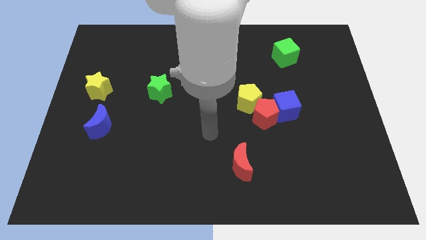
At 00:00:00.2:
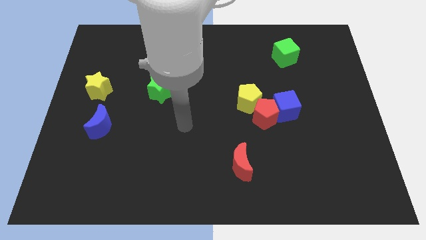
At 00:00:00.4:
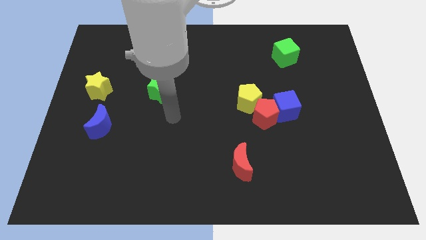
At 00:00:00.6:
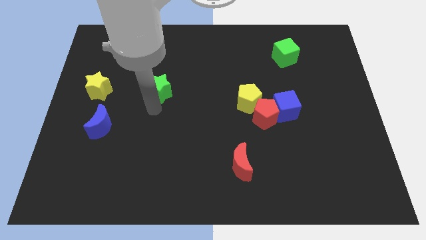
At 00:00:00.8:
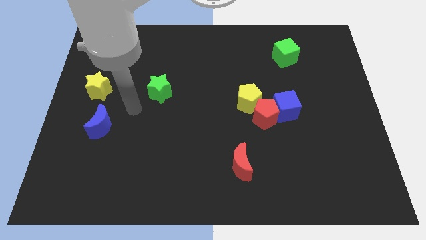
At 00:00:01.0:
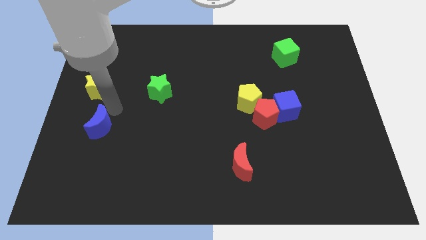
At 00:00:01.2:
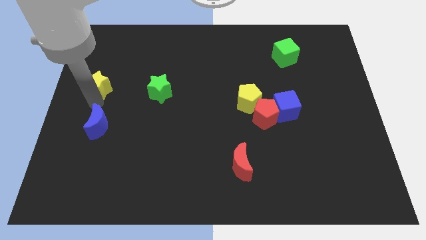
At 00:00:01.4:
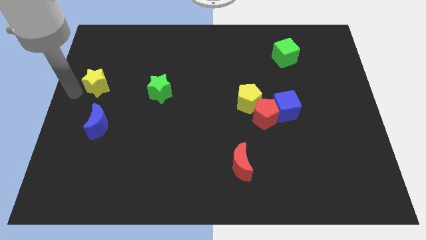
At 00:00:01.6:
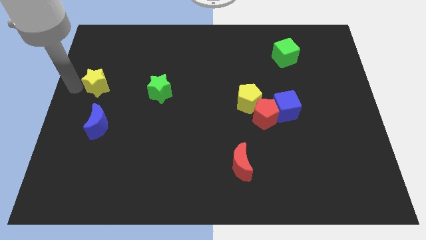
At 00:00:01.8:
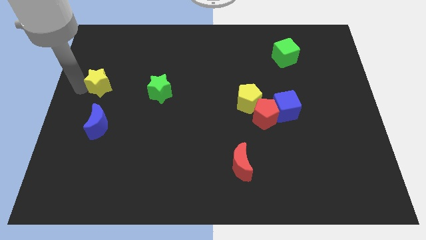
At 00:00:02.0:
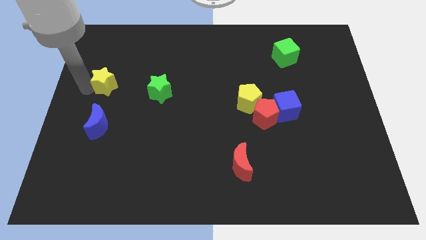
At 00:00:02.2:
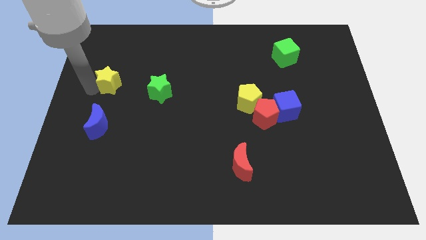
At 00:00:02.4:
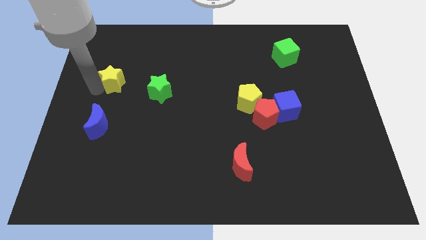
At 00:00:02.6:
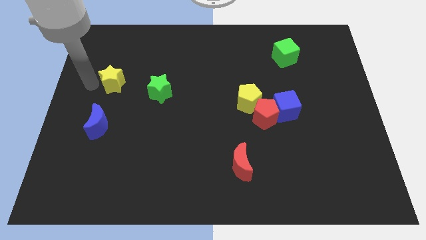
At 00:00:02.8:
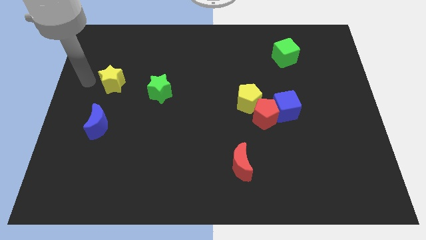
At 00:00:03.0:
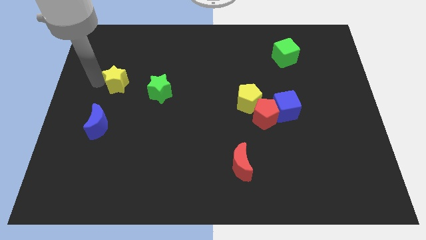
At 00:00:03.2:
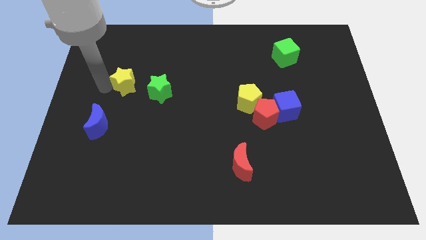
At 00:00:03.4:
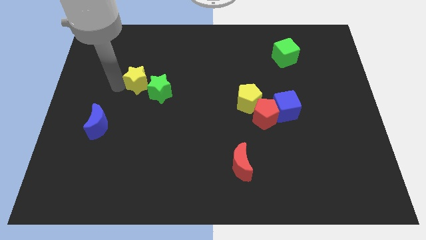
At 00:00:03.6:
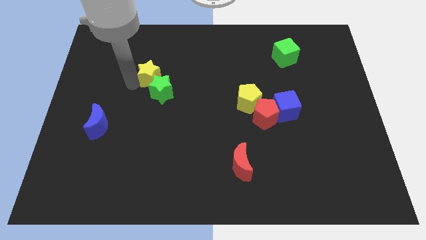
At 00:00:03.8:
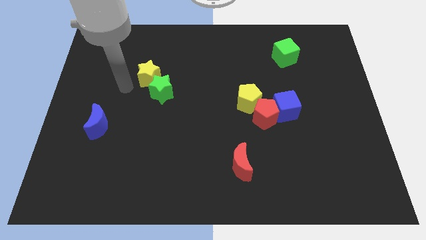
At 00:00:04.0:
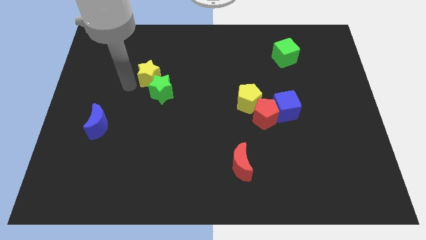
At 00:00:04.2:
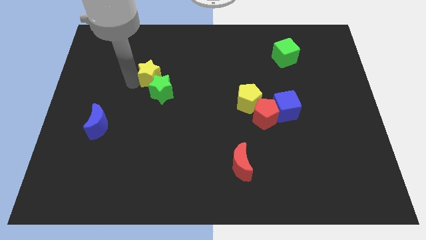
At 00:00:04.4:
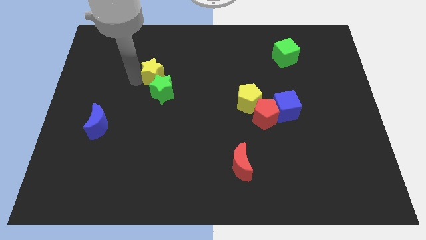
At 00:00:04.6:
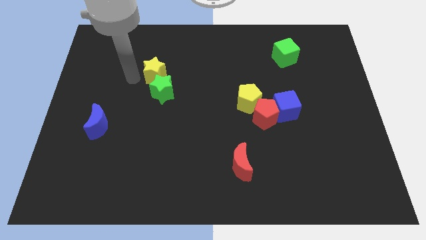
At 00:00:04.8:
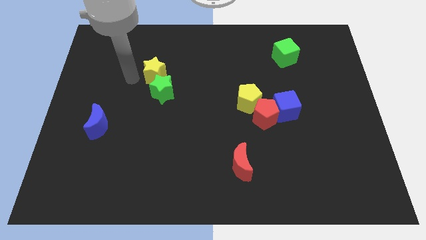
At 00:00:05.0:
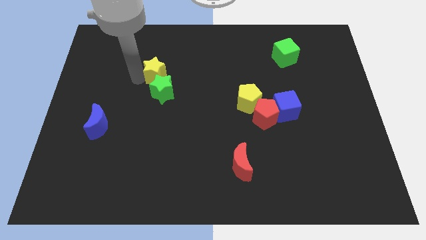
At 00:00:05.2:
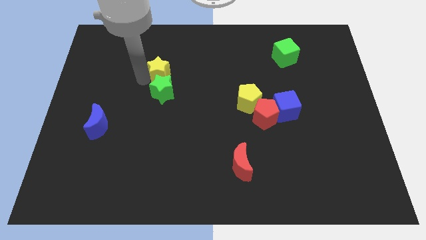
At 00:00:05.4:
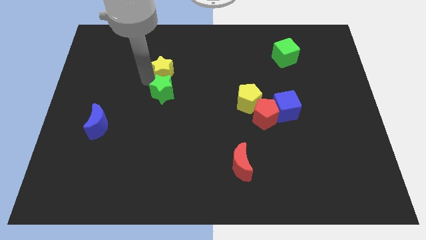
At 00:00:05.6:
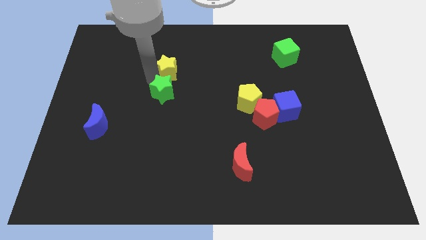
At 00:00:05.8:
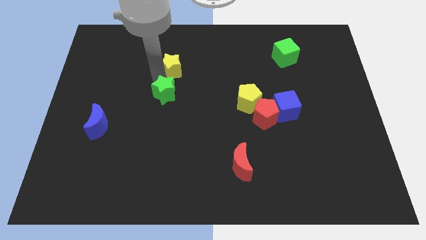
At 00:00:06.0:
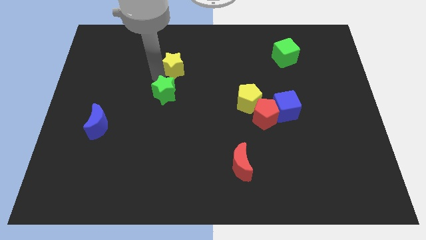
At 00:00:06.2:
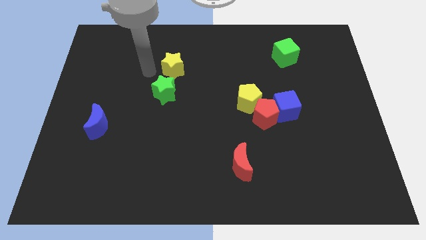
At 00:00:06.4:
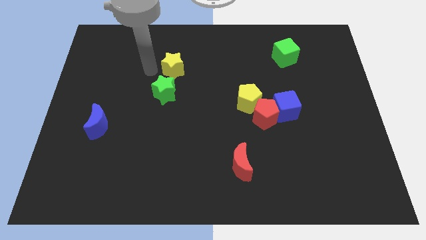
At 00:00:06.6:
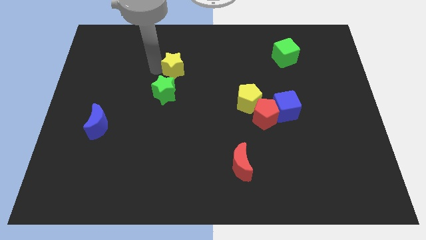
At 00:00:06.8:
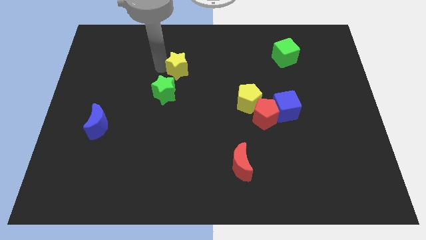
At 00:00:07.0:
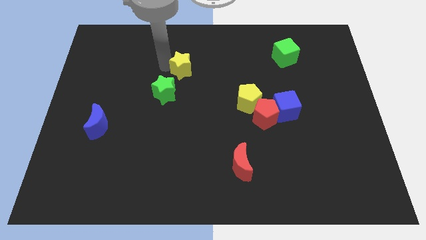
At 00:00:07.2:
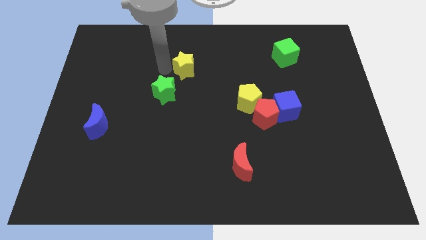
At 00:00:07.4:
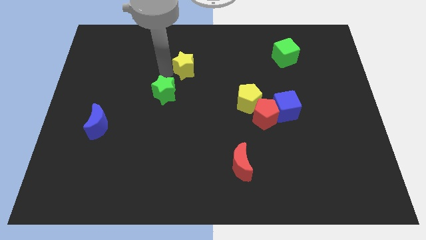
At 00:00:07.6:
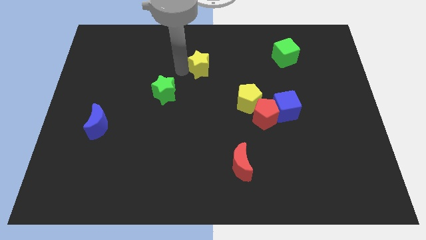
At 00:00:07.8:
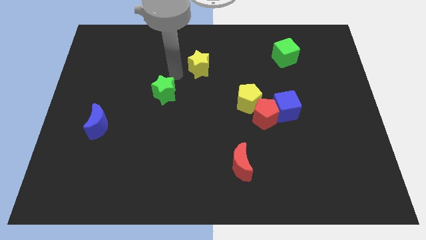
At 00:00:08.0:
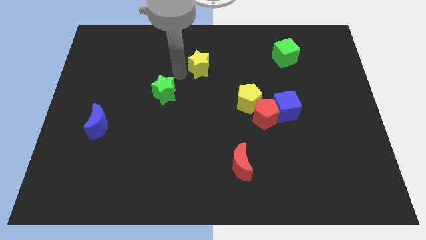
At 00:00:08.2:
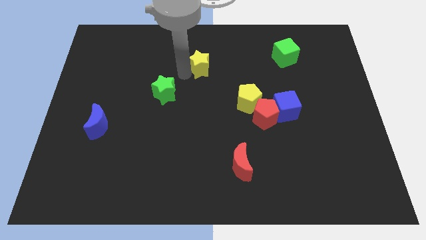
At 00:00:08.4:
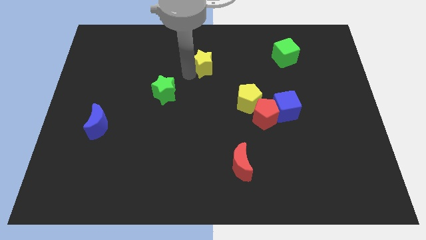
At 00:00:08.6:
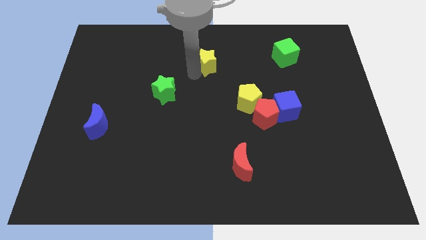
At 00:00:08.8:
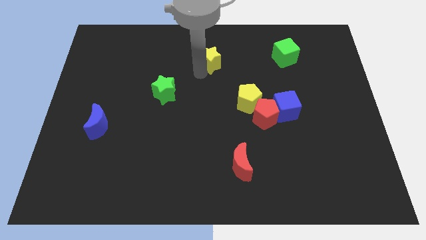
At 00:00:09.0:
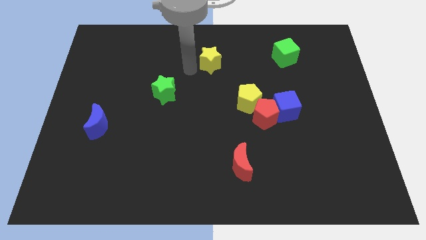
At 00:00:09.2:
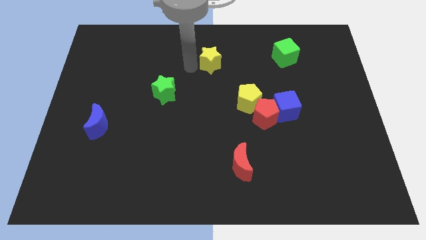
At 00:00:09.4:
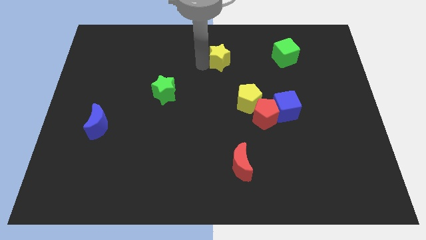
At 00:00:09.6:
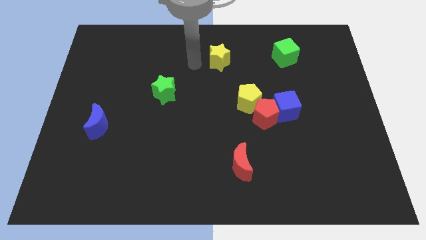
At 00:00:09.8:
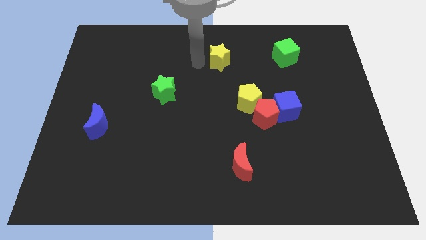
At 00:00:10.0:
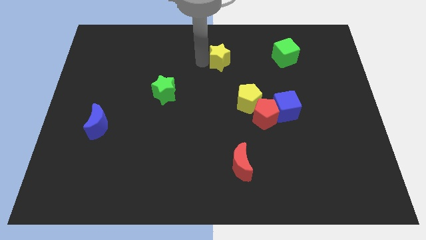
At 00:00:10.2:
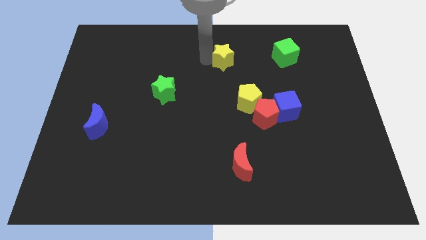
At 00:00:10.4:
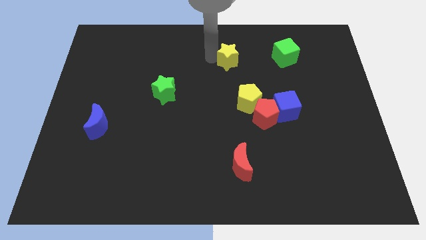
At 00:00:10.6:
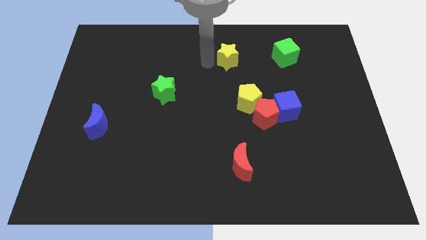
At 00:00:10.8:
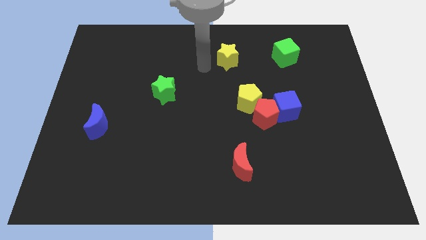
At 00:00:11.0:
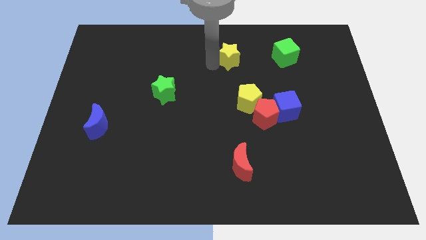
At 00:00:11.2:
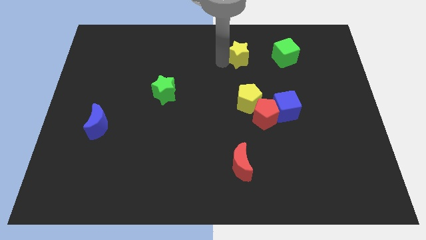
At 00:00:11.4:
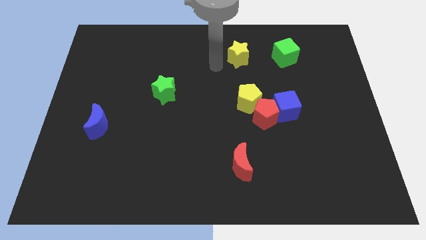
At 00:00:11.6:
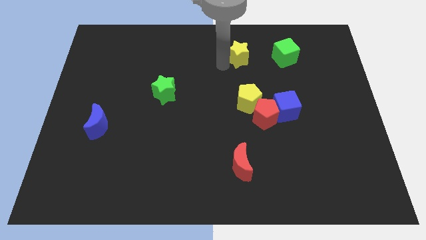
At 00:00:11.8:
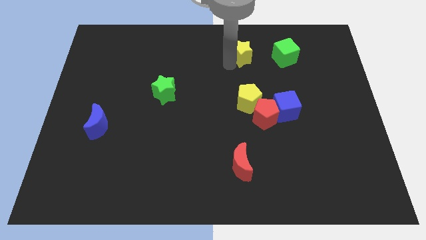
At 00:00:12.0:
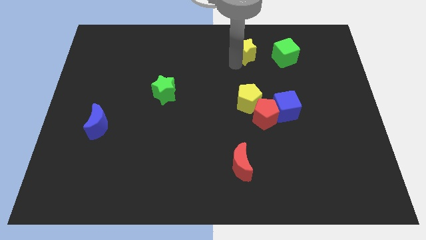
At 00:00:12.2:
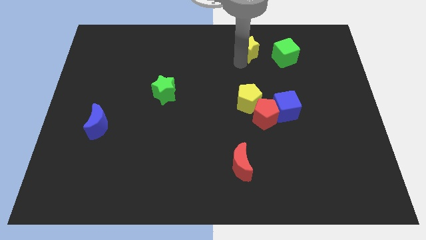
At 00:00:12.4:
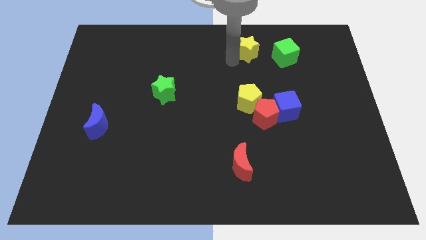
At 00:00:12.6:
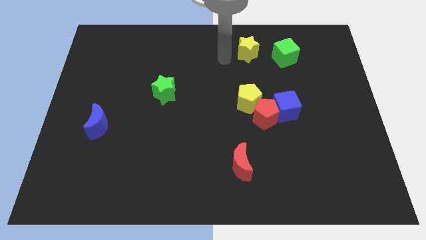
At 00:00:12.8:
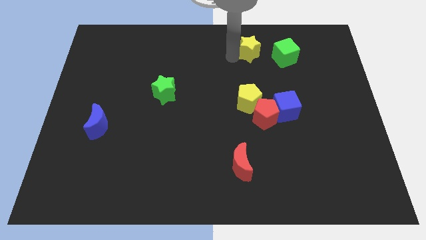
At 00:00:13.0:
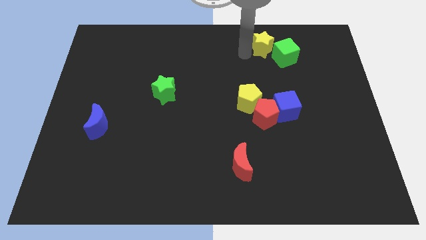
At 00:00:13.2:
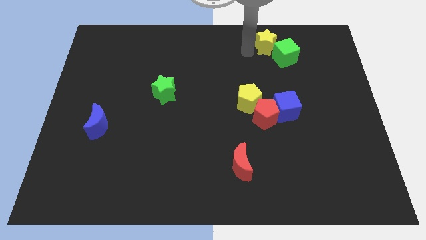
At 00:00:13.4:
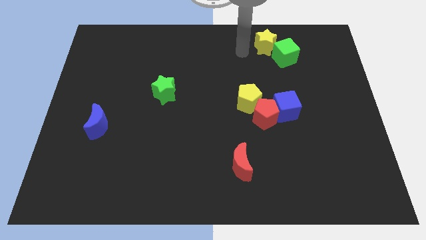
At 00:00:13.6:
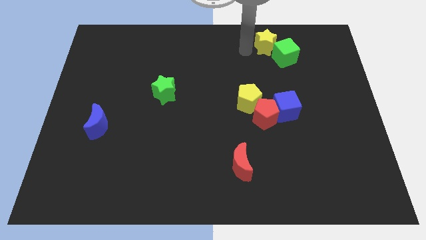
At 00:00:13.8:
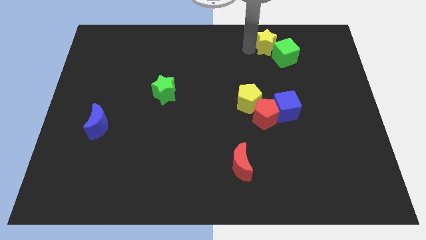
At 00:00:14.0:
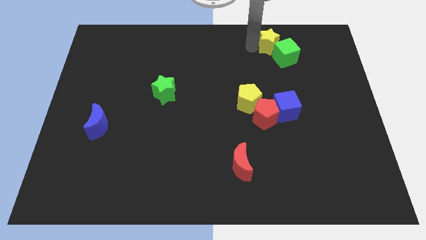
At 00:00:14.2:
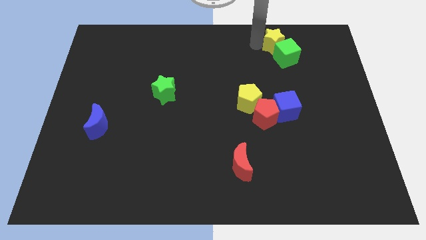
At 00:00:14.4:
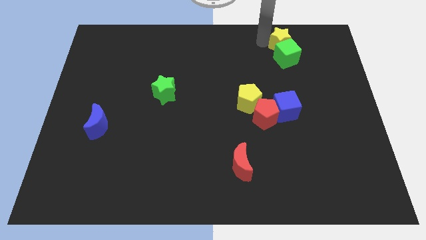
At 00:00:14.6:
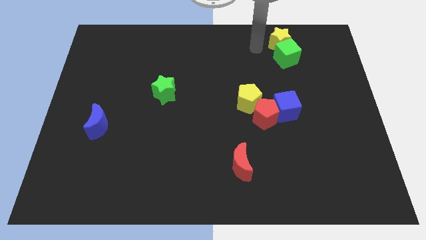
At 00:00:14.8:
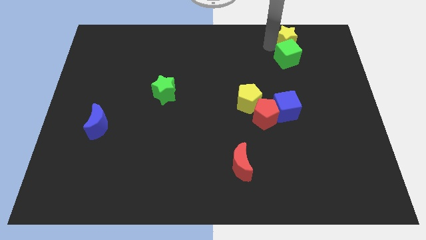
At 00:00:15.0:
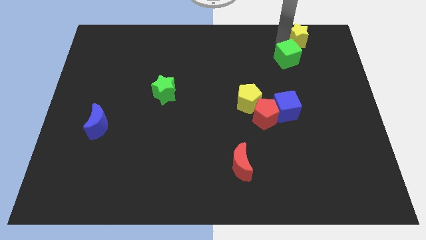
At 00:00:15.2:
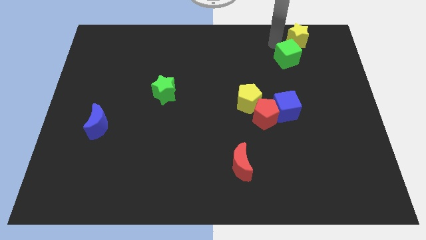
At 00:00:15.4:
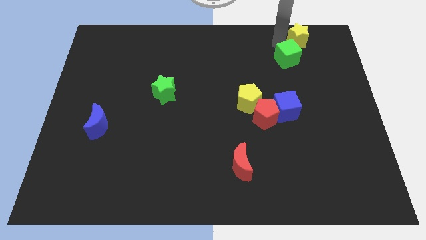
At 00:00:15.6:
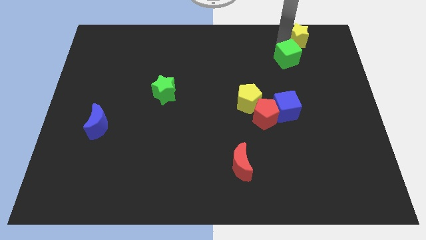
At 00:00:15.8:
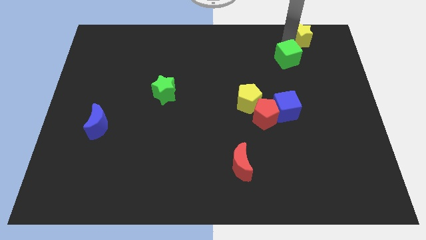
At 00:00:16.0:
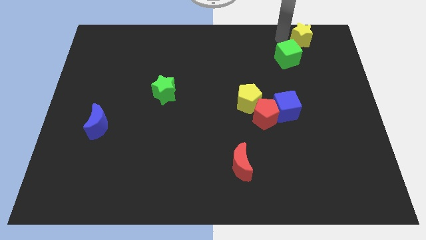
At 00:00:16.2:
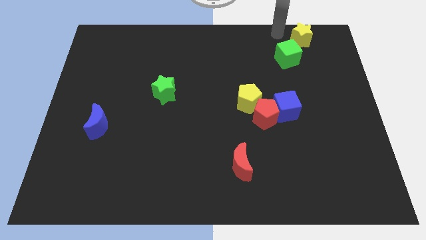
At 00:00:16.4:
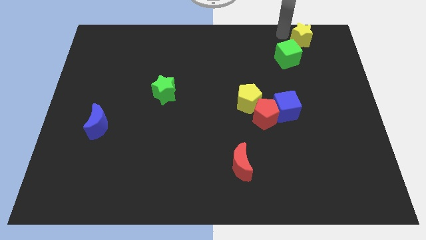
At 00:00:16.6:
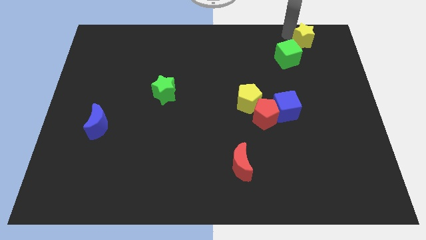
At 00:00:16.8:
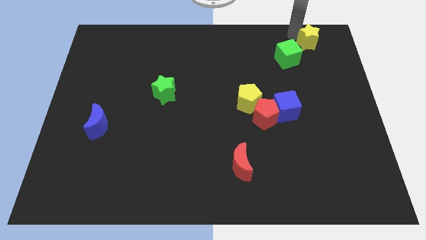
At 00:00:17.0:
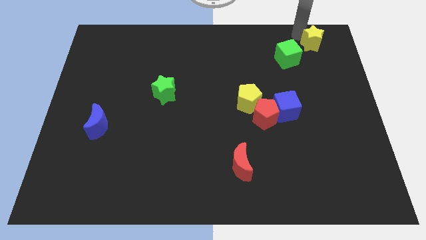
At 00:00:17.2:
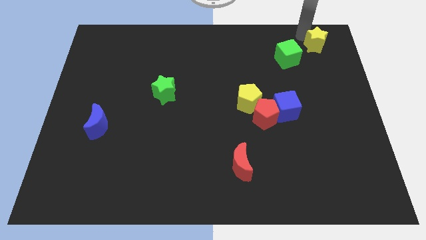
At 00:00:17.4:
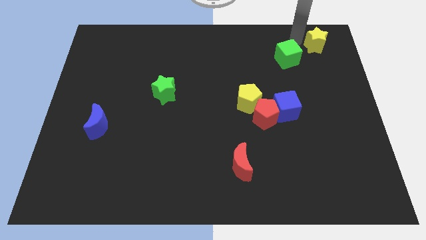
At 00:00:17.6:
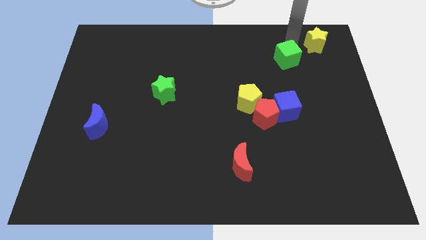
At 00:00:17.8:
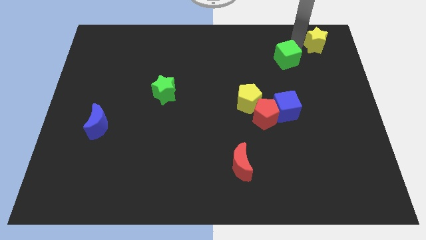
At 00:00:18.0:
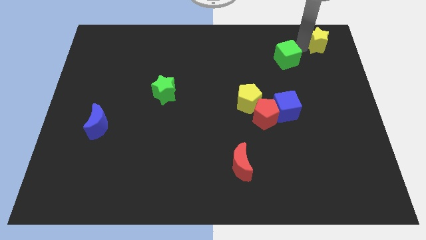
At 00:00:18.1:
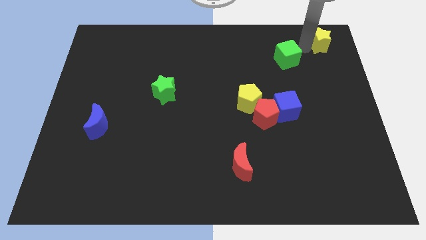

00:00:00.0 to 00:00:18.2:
push the yellow star to the upper right corner
